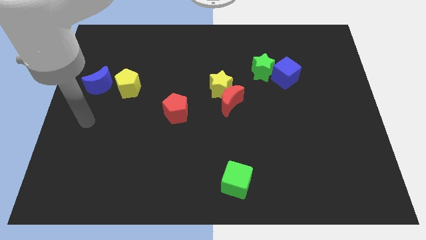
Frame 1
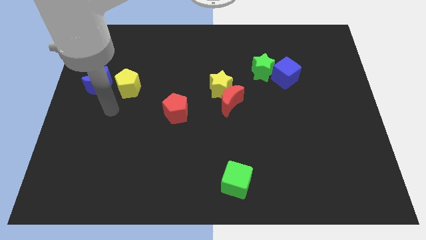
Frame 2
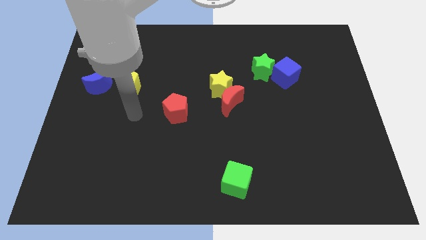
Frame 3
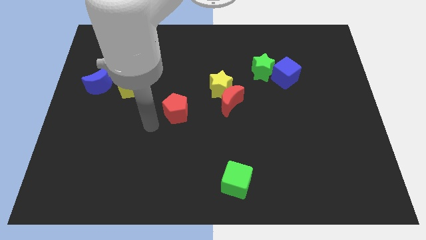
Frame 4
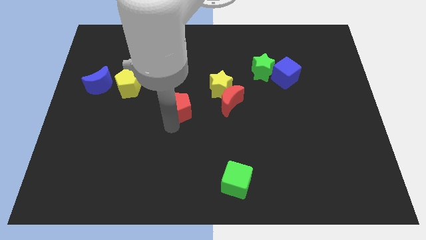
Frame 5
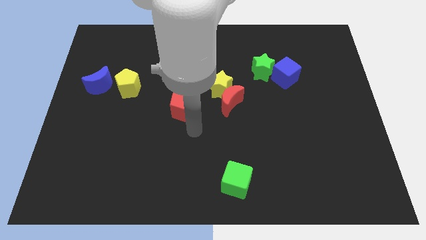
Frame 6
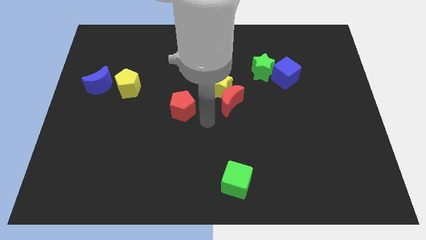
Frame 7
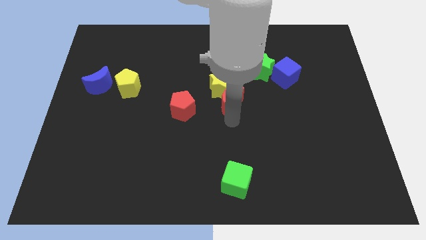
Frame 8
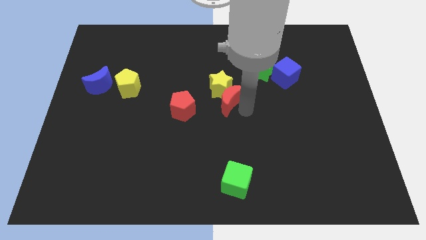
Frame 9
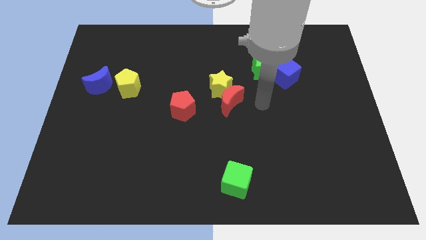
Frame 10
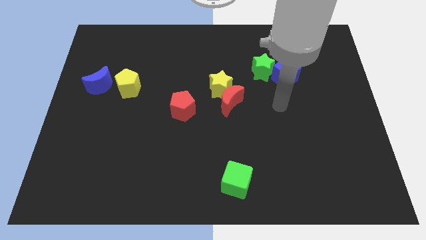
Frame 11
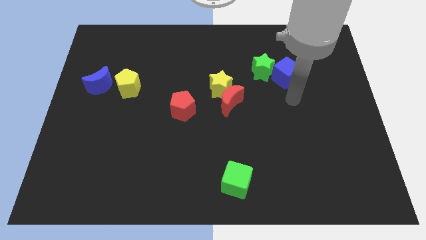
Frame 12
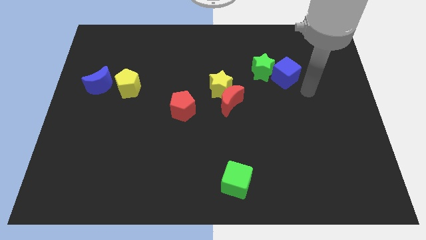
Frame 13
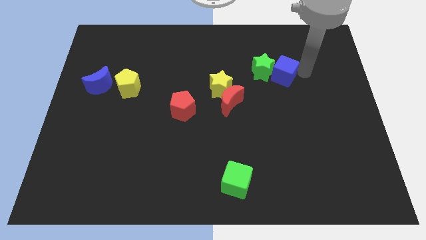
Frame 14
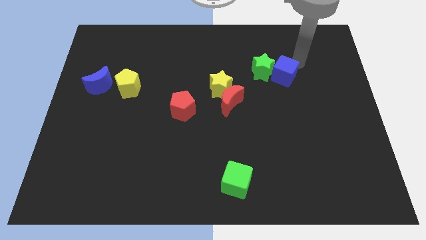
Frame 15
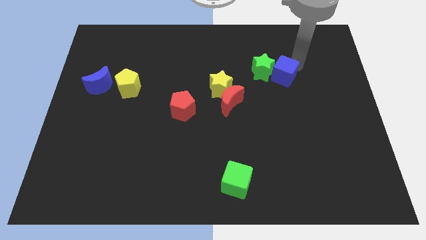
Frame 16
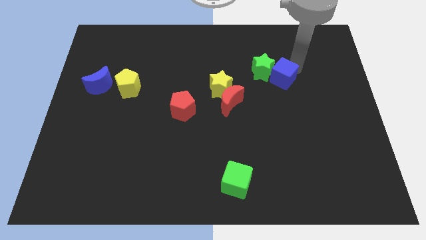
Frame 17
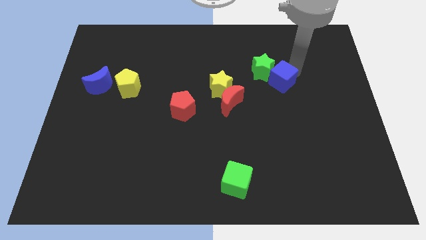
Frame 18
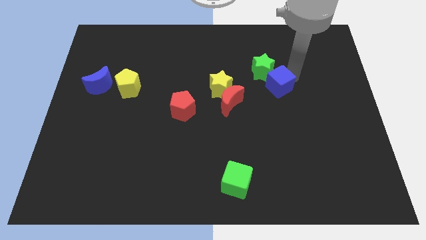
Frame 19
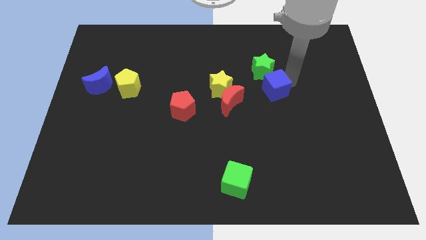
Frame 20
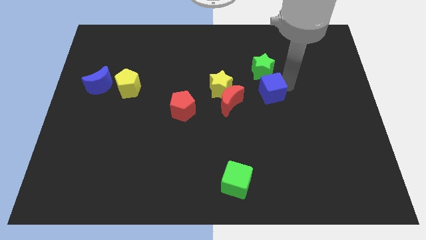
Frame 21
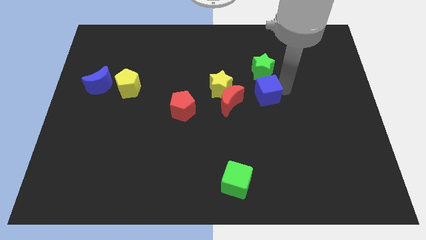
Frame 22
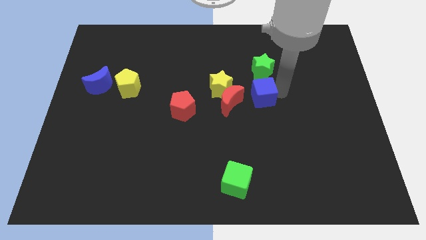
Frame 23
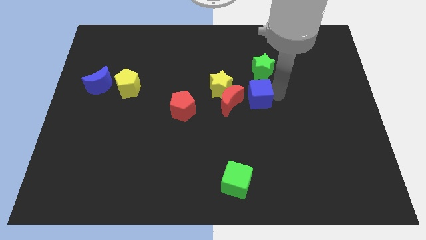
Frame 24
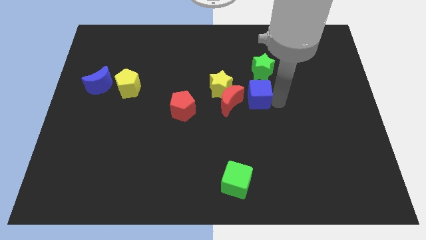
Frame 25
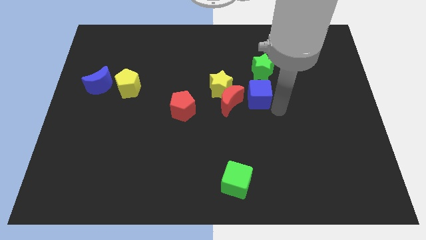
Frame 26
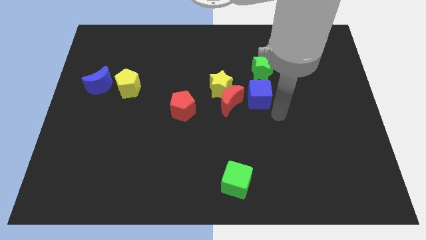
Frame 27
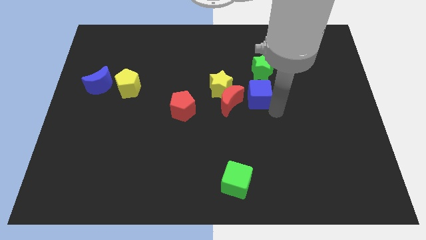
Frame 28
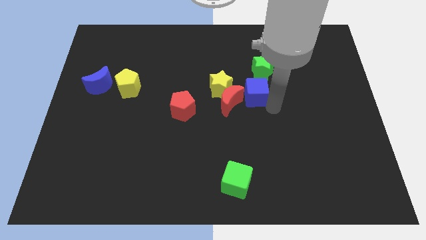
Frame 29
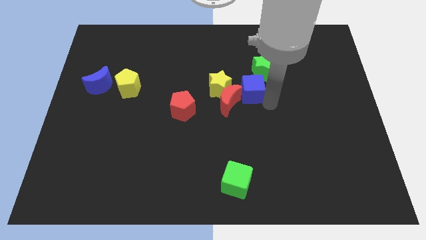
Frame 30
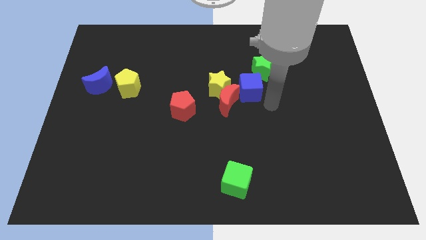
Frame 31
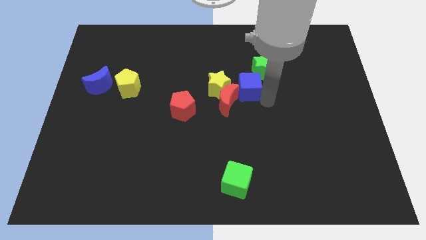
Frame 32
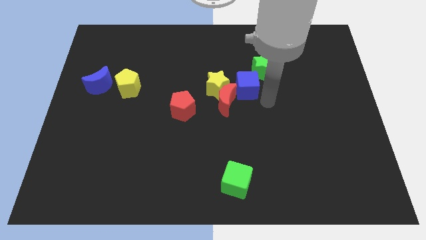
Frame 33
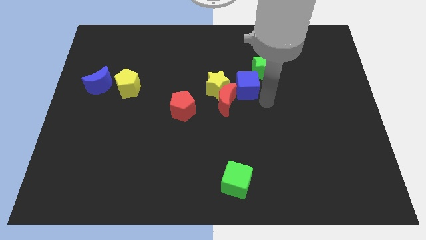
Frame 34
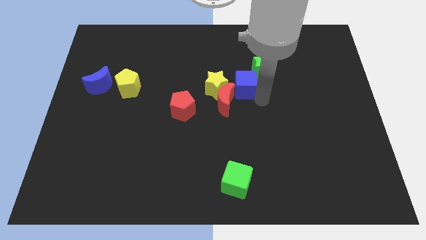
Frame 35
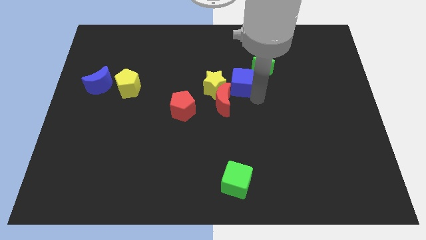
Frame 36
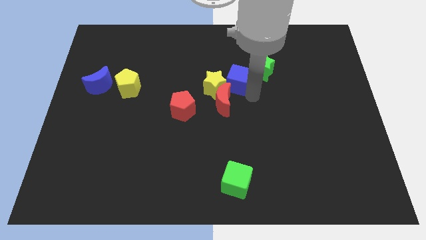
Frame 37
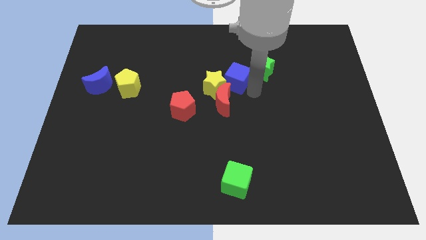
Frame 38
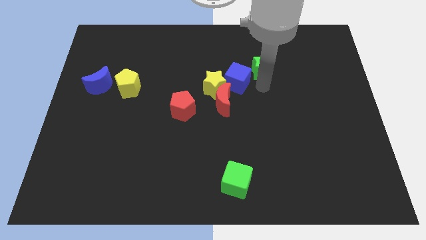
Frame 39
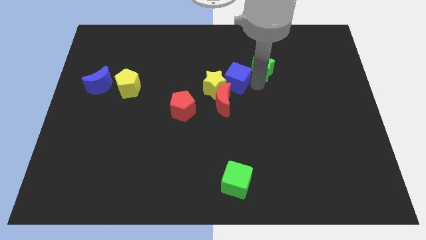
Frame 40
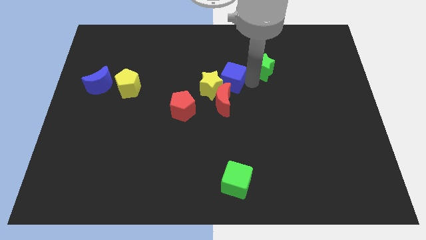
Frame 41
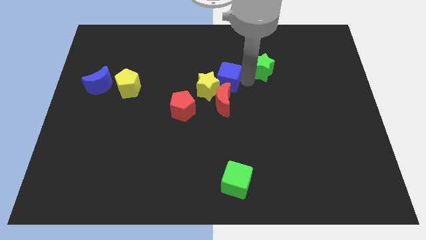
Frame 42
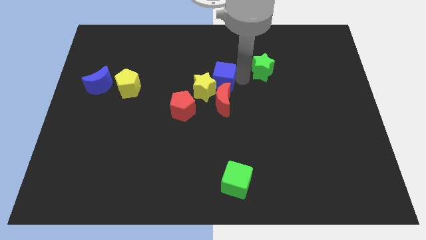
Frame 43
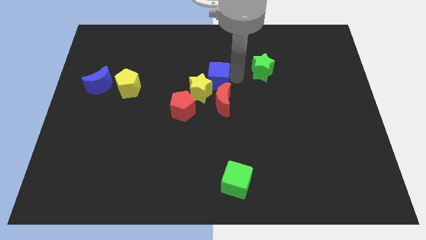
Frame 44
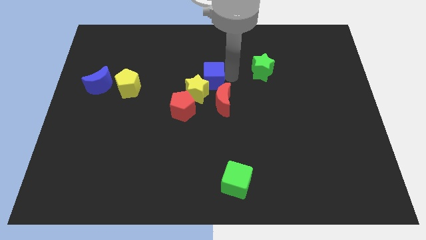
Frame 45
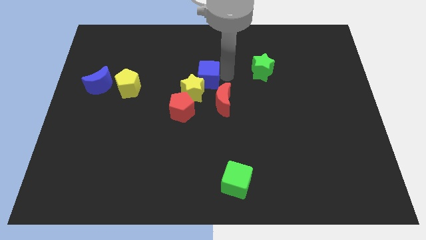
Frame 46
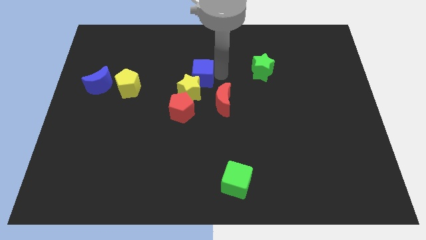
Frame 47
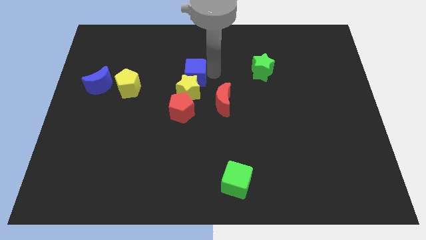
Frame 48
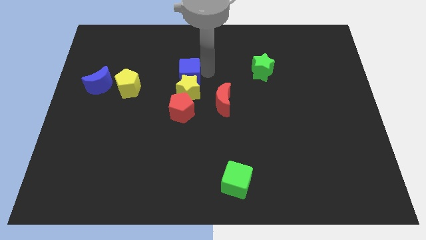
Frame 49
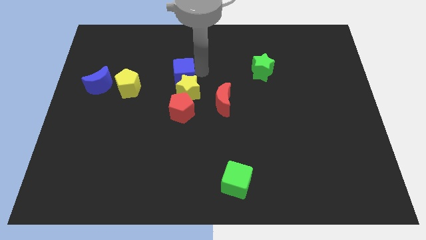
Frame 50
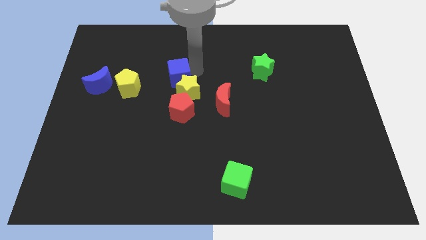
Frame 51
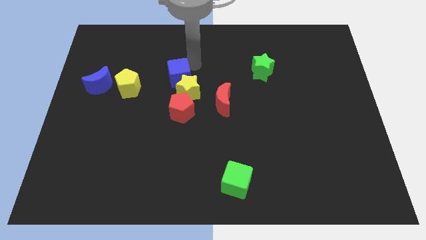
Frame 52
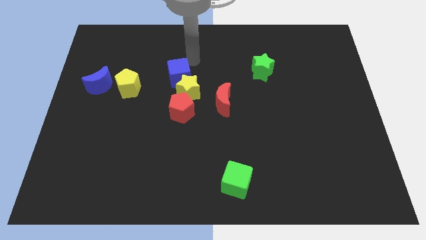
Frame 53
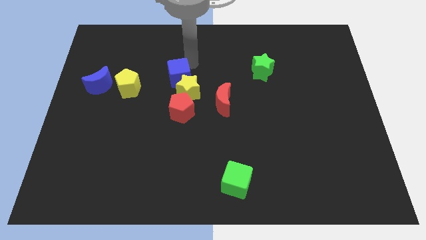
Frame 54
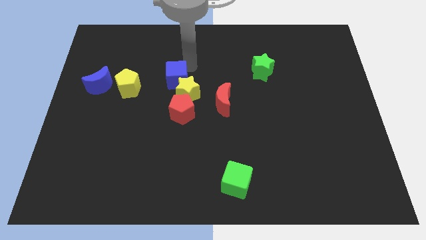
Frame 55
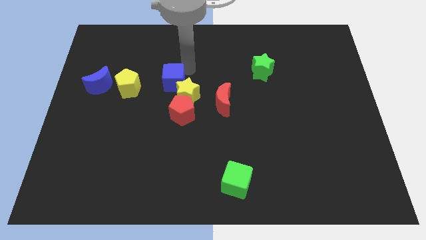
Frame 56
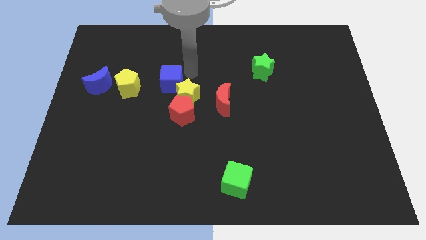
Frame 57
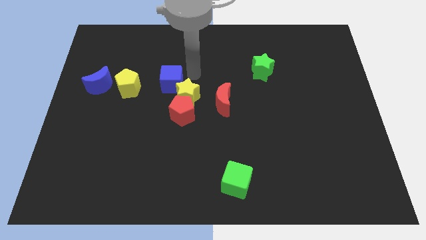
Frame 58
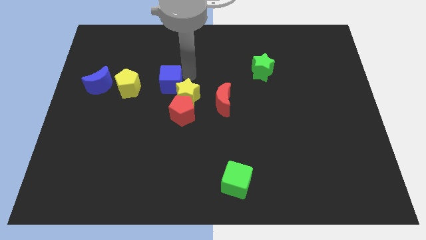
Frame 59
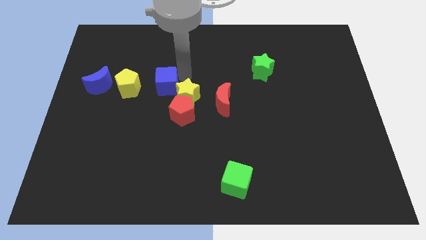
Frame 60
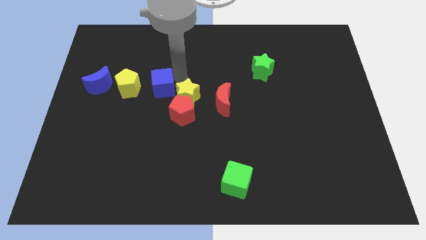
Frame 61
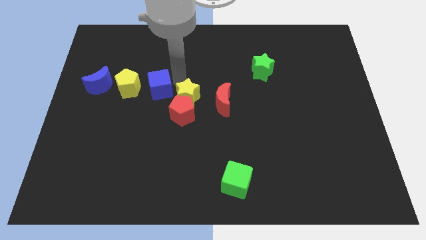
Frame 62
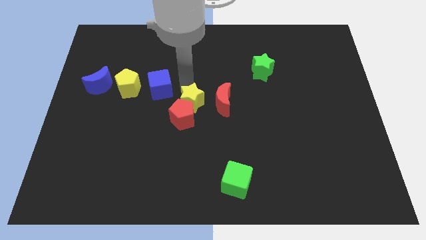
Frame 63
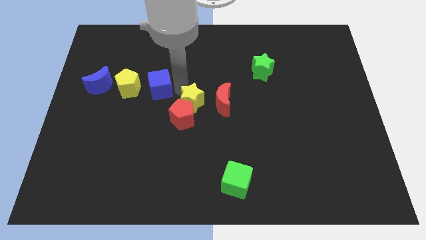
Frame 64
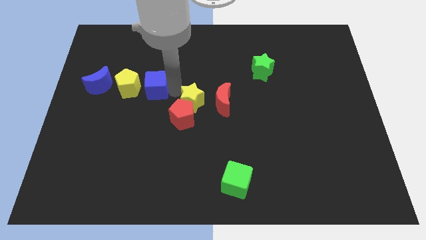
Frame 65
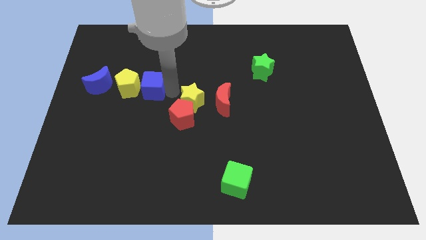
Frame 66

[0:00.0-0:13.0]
put the blue cube close to the yellow pentagon

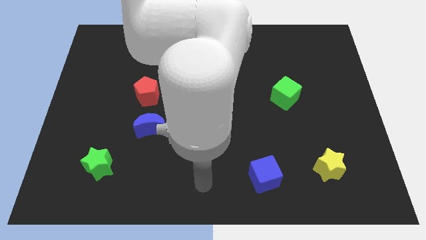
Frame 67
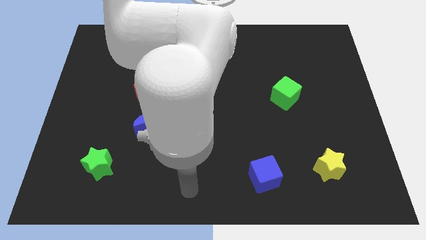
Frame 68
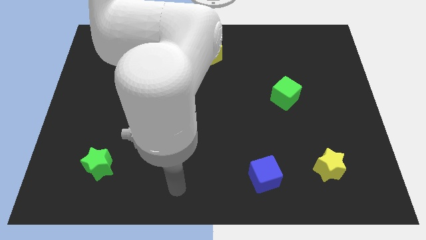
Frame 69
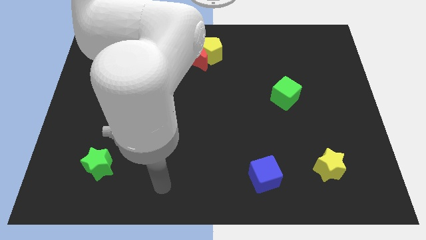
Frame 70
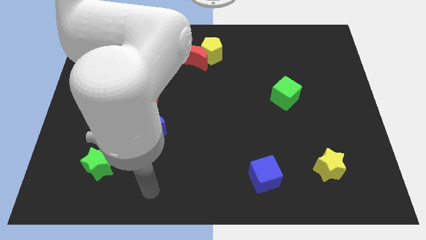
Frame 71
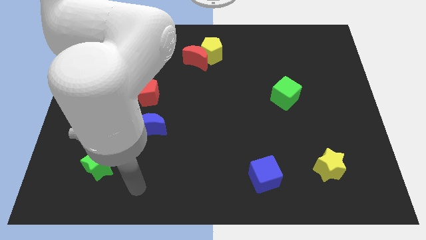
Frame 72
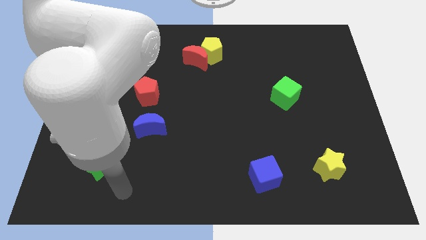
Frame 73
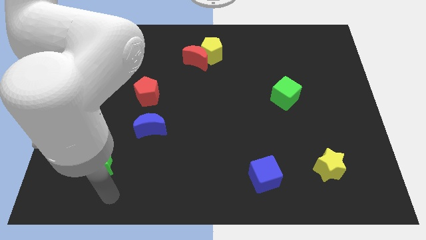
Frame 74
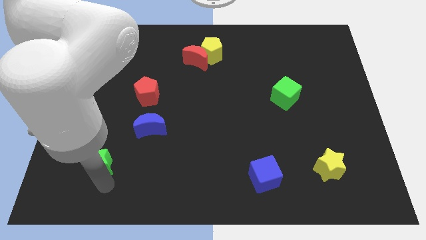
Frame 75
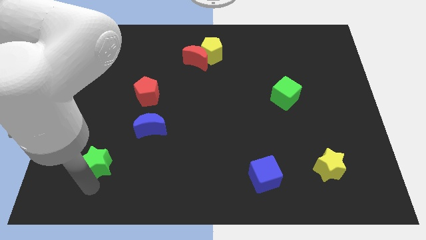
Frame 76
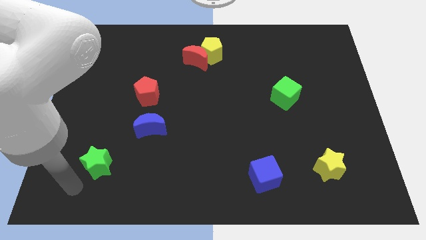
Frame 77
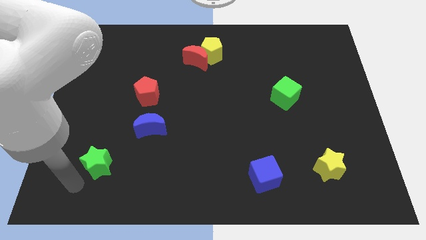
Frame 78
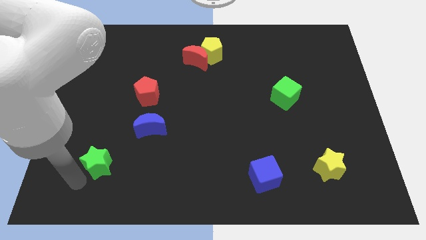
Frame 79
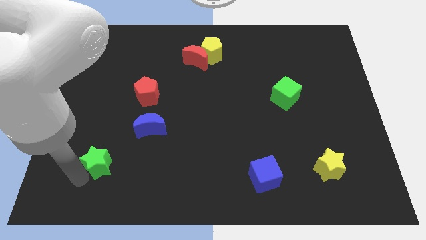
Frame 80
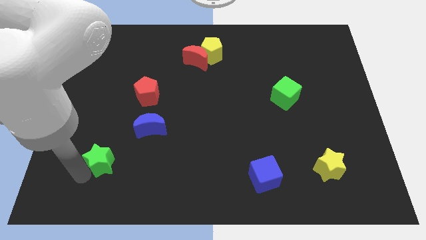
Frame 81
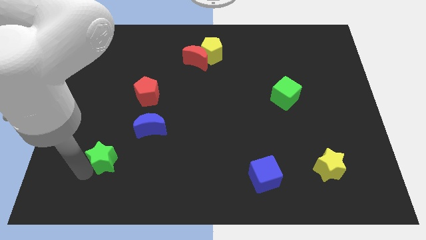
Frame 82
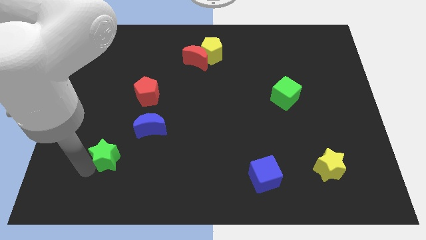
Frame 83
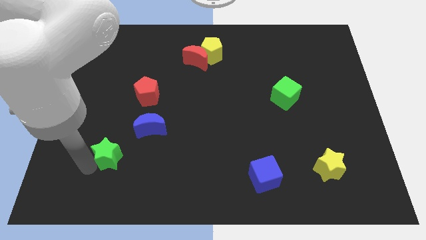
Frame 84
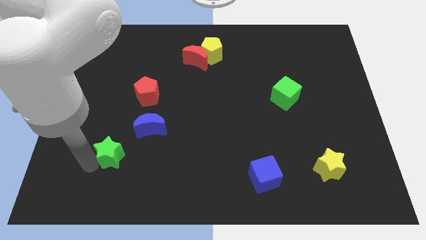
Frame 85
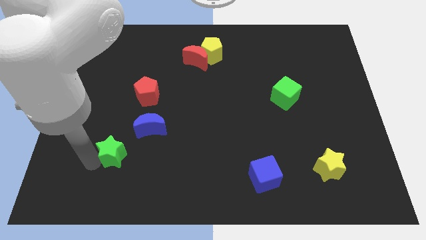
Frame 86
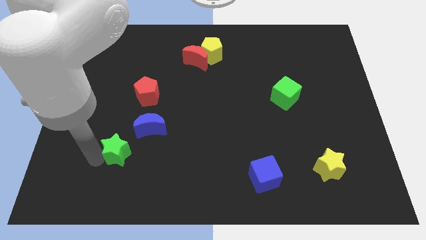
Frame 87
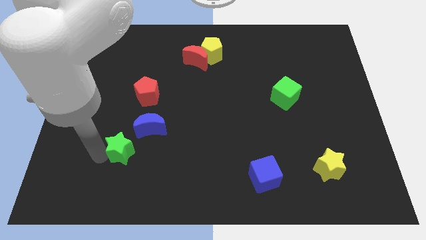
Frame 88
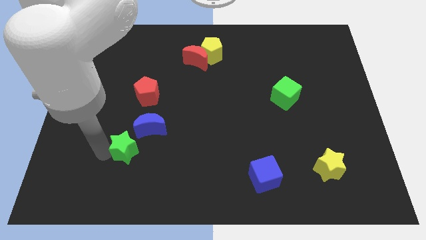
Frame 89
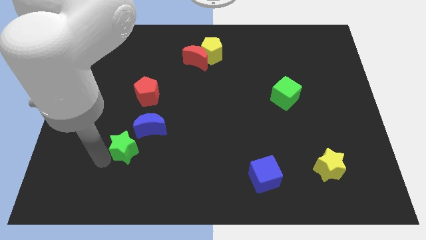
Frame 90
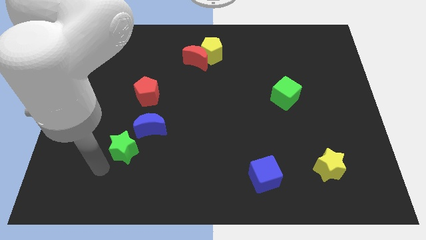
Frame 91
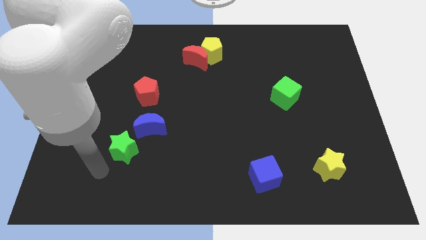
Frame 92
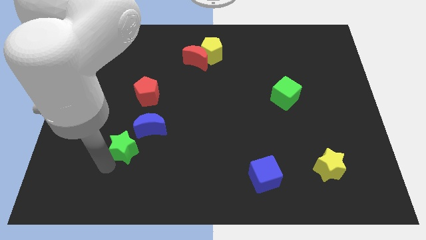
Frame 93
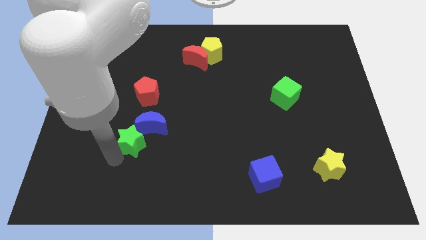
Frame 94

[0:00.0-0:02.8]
put the green star towards the blue moon
